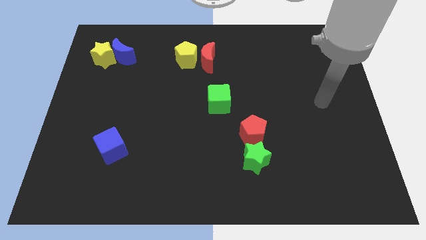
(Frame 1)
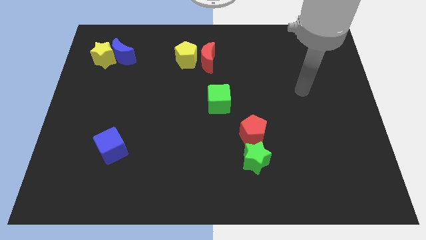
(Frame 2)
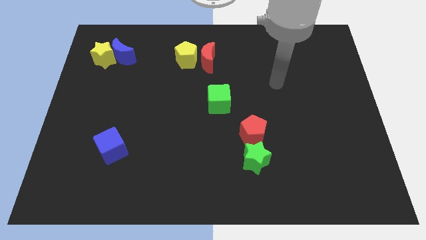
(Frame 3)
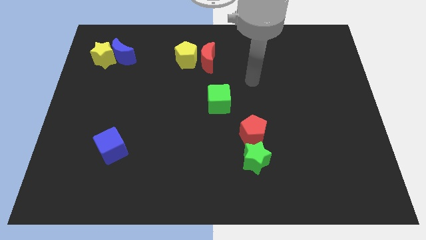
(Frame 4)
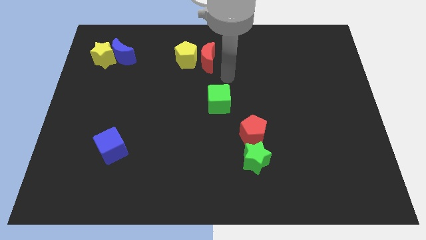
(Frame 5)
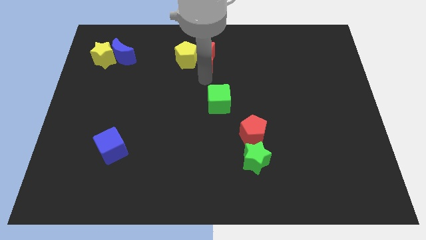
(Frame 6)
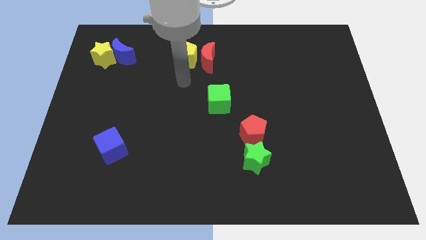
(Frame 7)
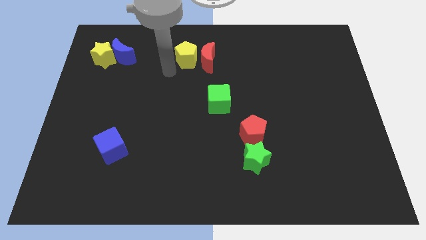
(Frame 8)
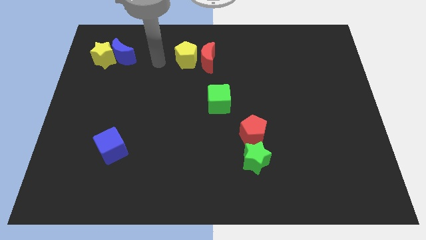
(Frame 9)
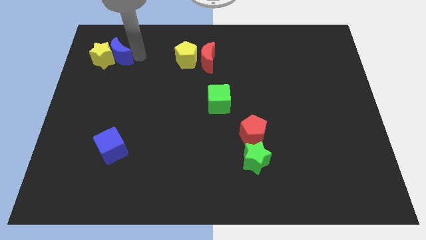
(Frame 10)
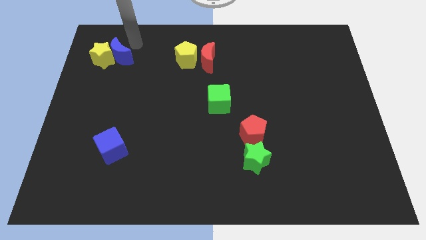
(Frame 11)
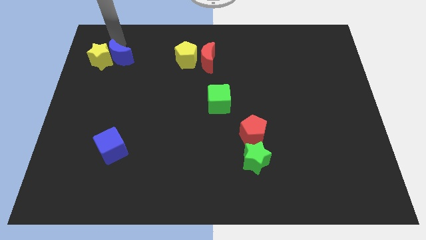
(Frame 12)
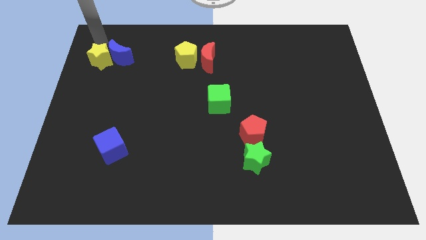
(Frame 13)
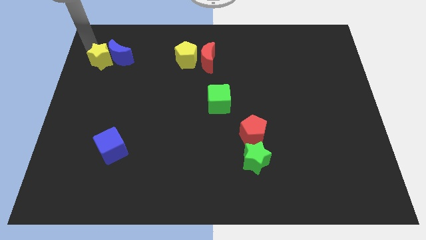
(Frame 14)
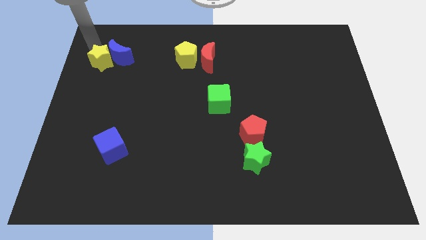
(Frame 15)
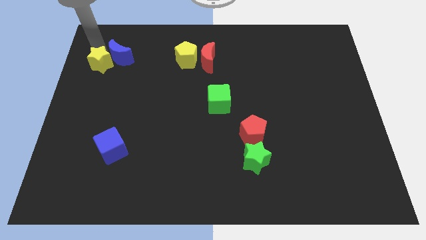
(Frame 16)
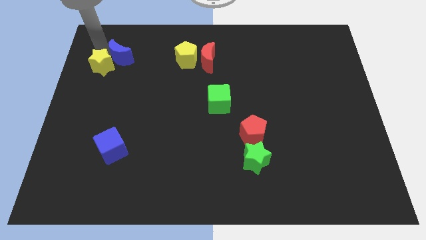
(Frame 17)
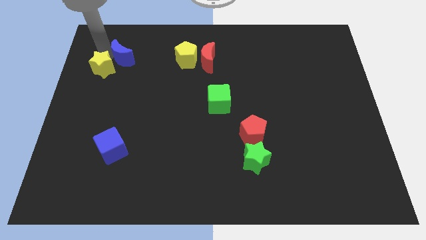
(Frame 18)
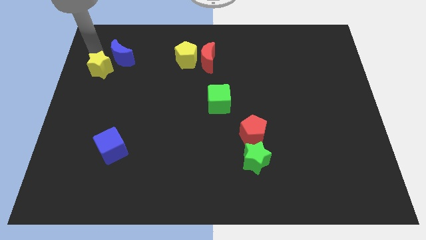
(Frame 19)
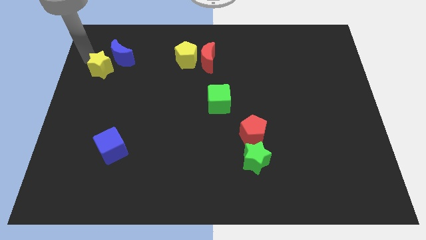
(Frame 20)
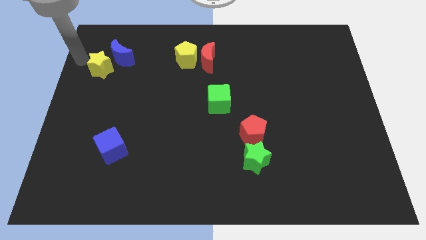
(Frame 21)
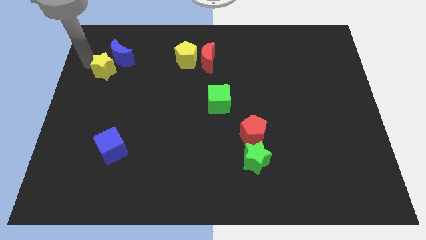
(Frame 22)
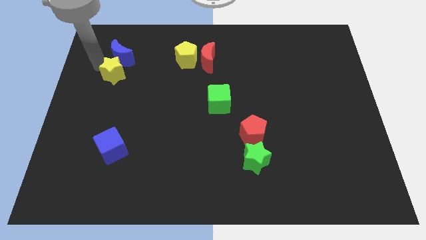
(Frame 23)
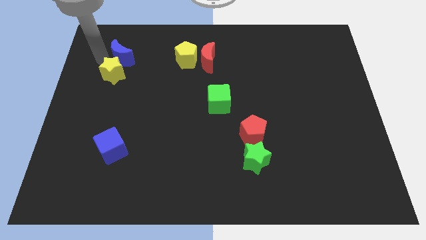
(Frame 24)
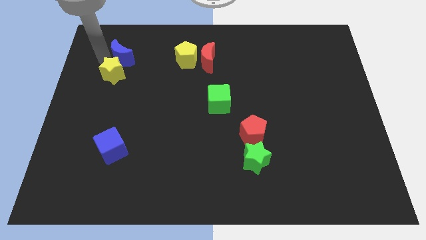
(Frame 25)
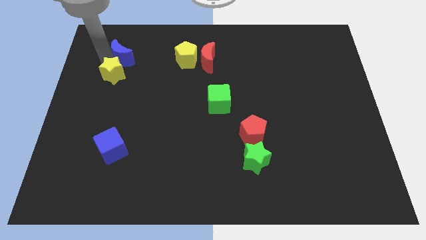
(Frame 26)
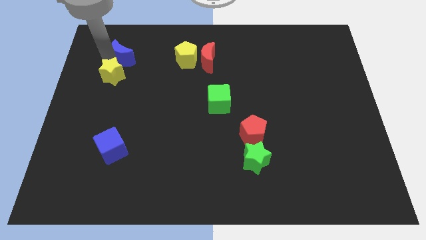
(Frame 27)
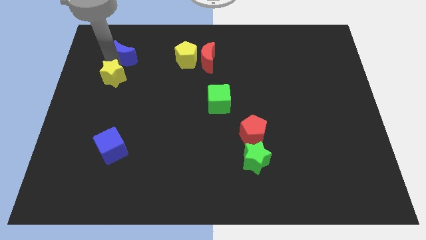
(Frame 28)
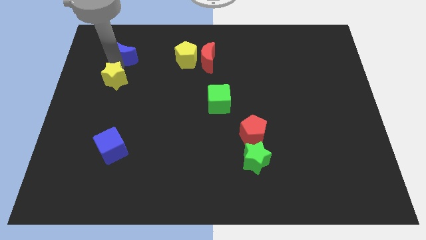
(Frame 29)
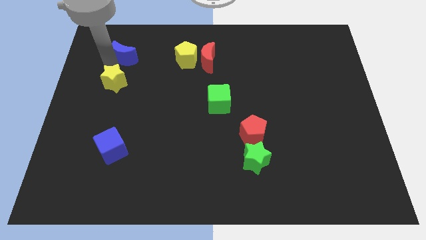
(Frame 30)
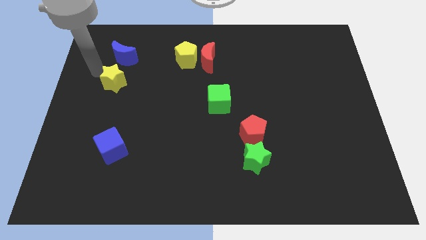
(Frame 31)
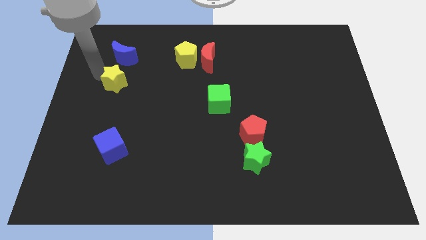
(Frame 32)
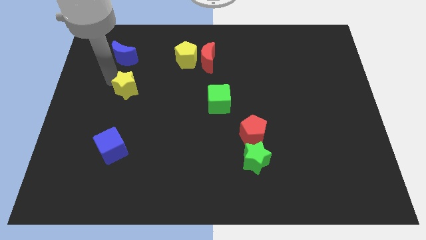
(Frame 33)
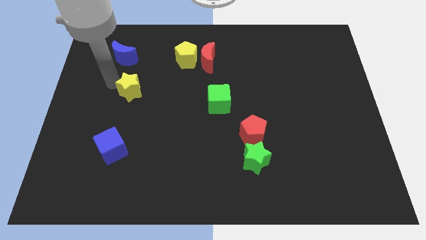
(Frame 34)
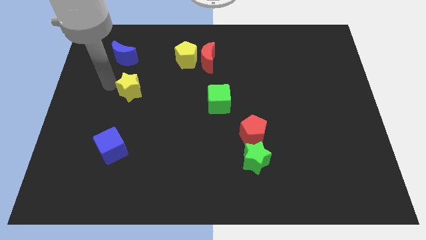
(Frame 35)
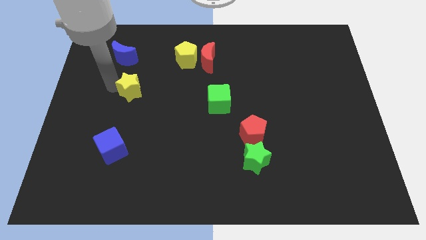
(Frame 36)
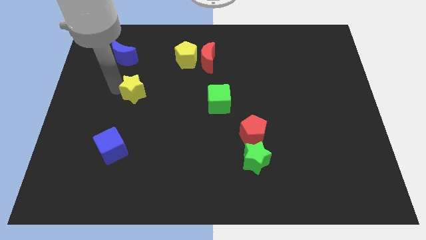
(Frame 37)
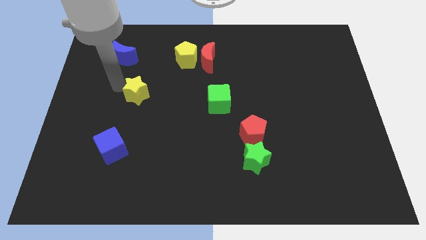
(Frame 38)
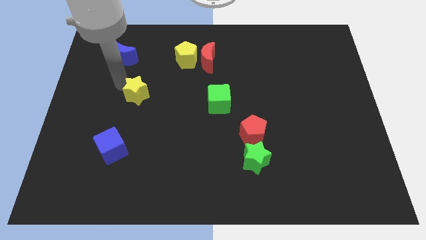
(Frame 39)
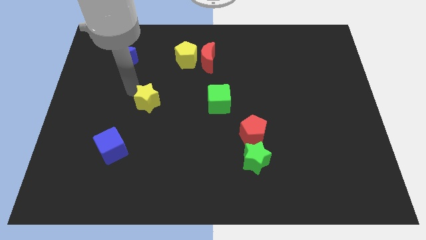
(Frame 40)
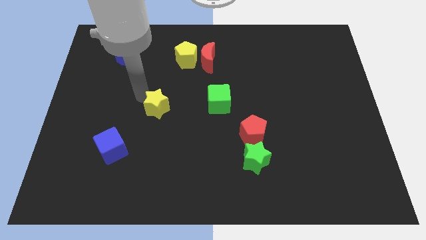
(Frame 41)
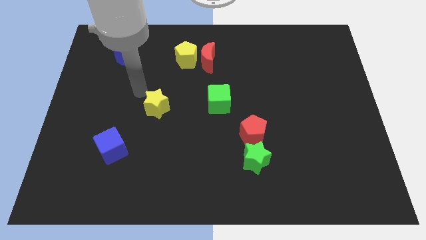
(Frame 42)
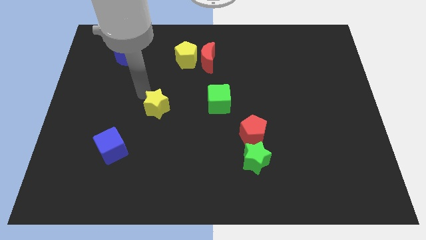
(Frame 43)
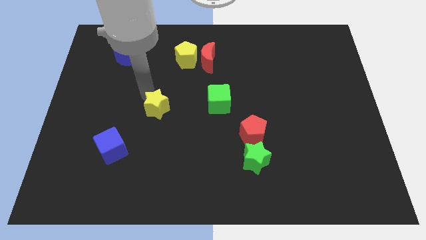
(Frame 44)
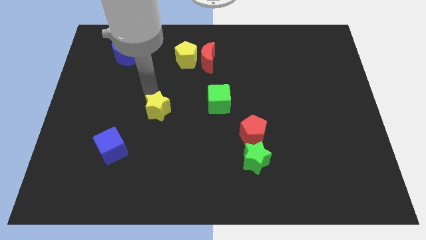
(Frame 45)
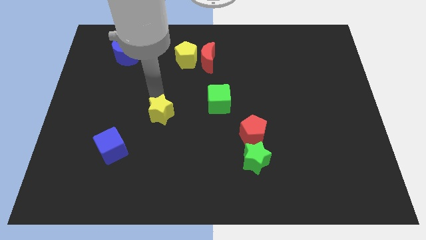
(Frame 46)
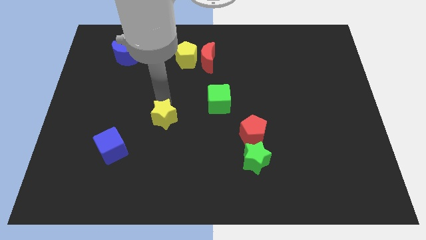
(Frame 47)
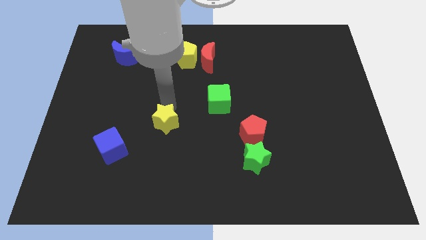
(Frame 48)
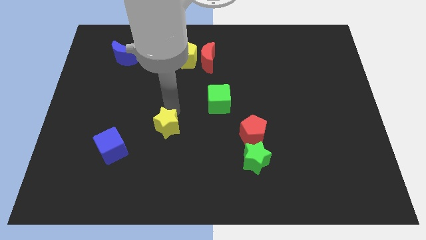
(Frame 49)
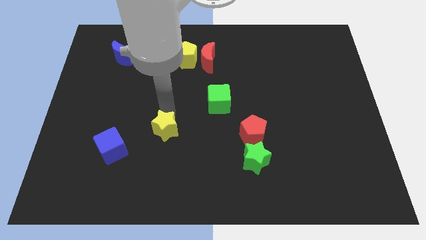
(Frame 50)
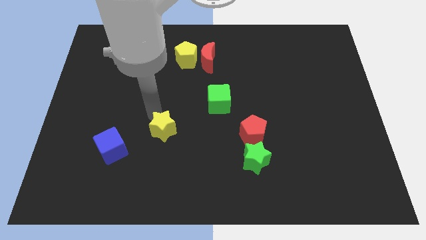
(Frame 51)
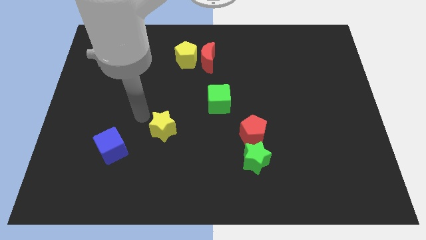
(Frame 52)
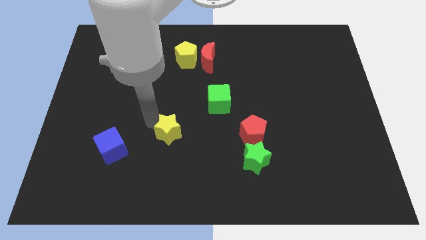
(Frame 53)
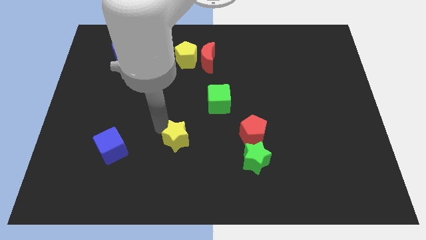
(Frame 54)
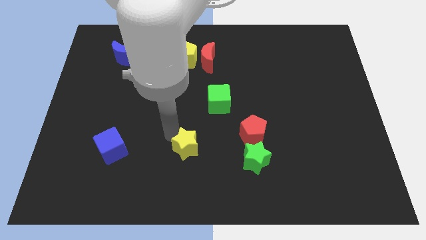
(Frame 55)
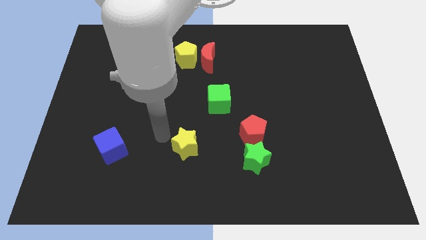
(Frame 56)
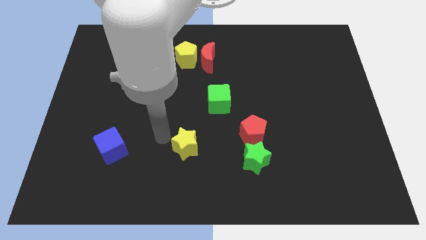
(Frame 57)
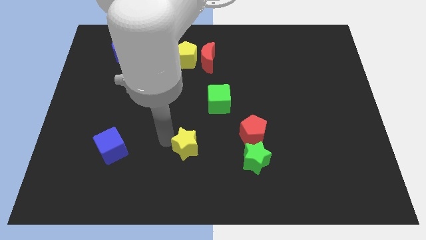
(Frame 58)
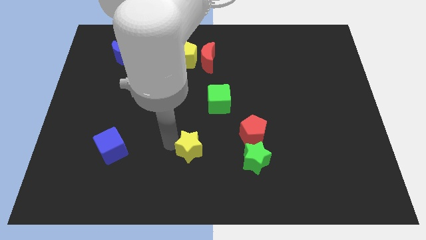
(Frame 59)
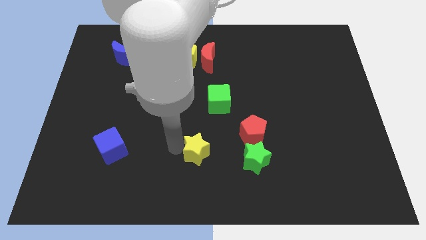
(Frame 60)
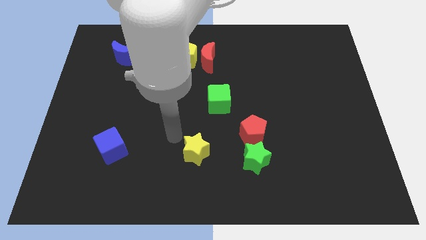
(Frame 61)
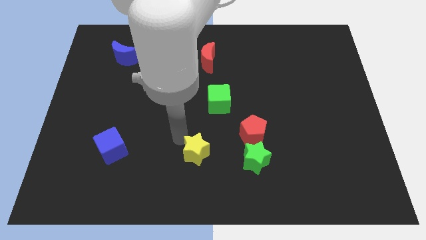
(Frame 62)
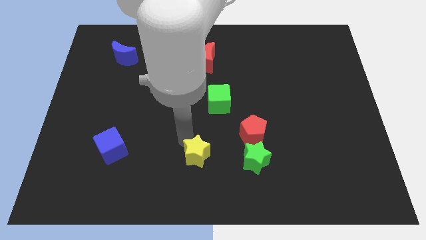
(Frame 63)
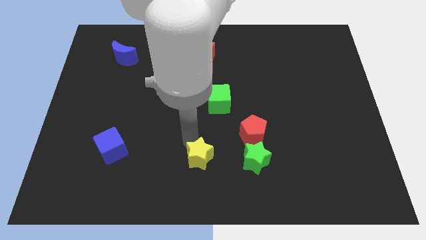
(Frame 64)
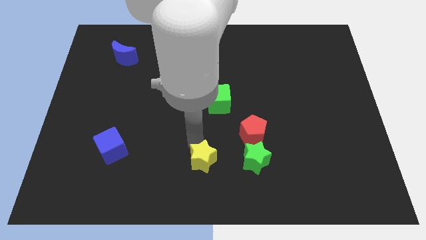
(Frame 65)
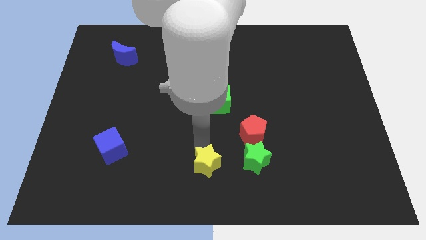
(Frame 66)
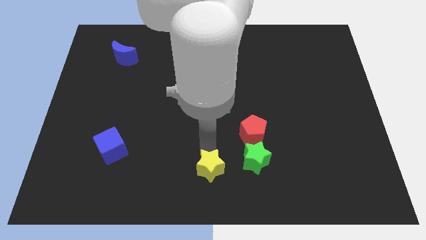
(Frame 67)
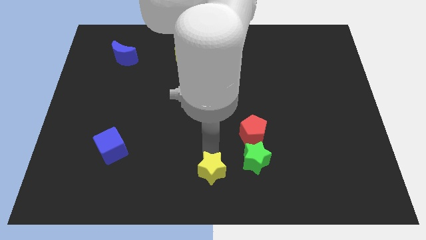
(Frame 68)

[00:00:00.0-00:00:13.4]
move the yellow star to the bottom left side of the green star
